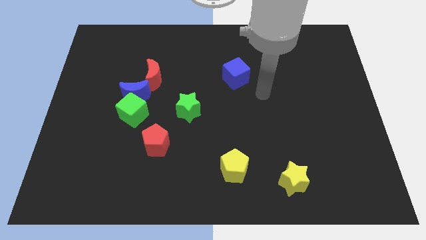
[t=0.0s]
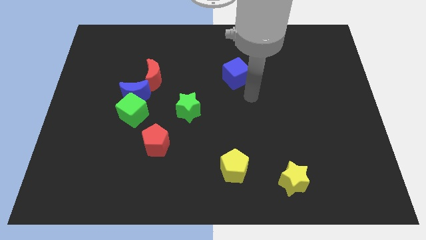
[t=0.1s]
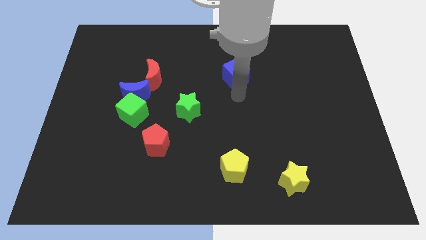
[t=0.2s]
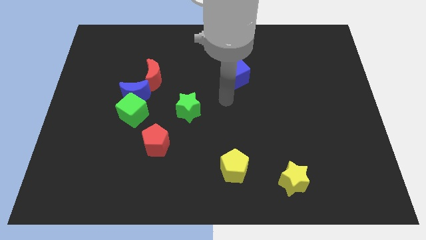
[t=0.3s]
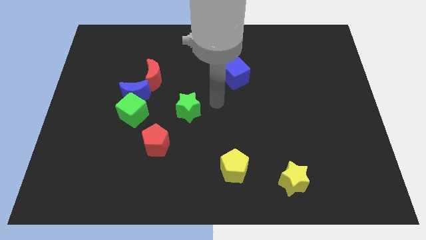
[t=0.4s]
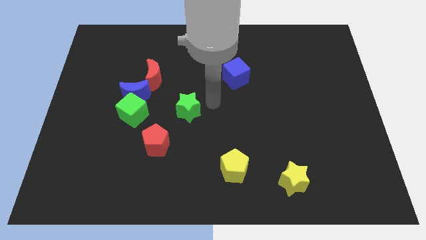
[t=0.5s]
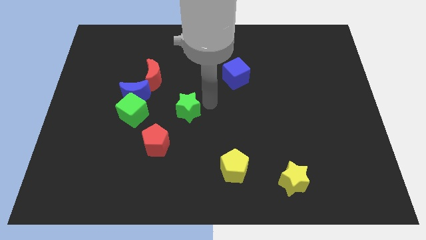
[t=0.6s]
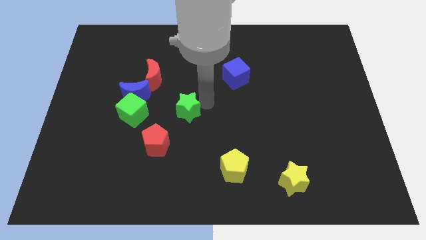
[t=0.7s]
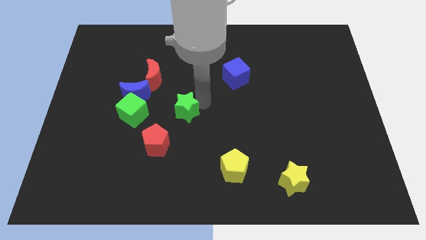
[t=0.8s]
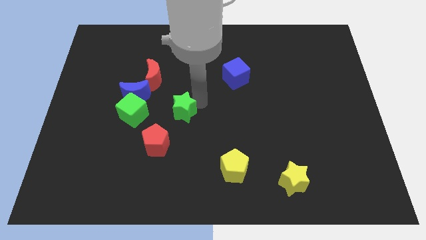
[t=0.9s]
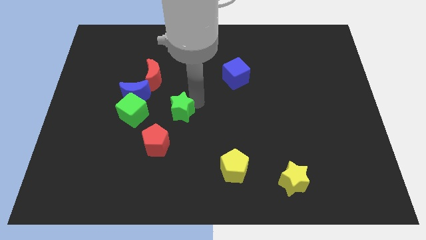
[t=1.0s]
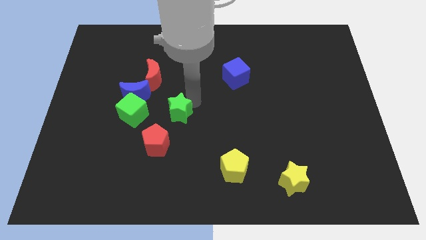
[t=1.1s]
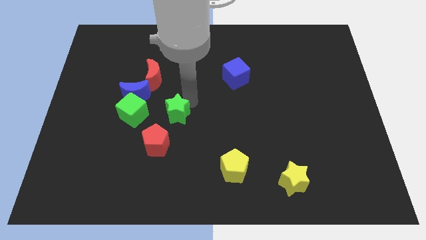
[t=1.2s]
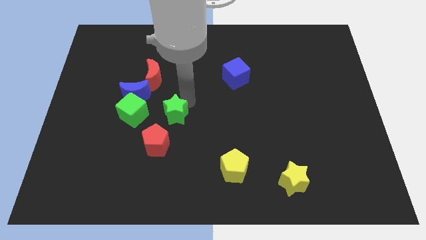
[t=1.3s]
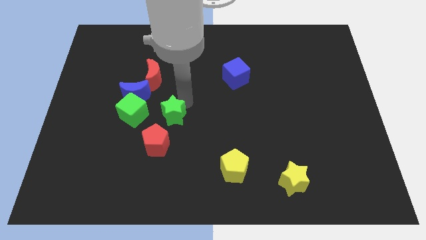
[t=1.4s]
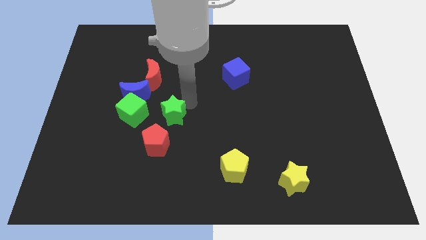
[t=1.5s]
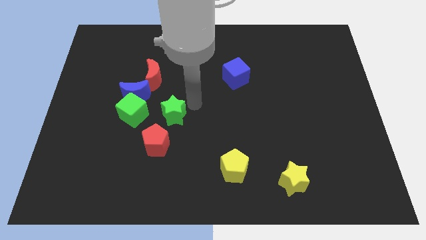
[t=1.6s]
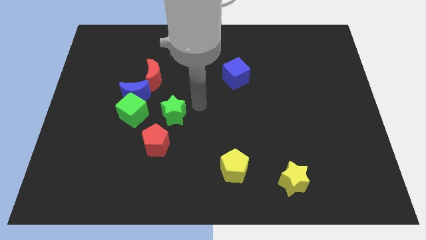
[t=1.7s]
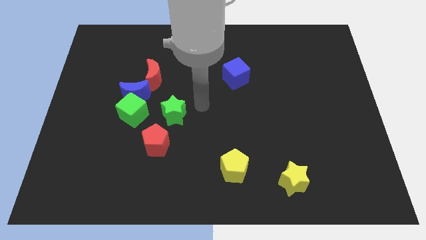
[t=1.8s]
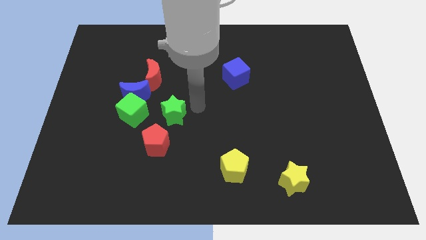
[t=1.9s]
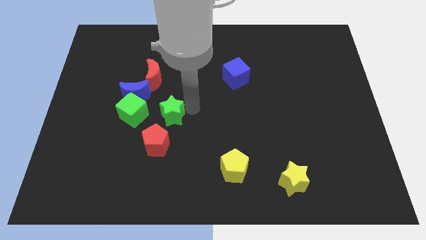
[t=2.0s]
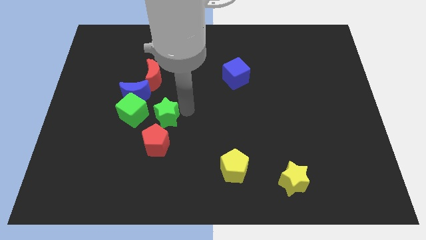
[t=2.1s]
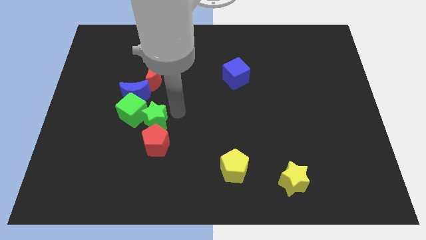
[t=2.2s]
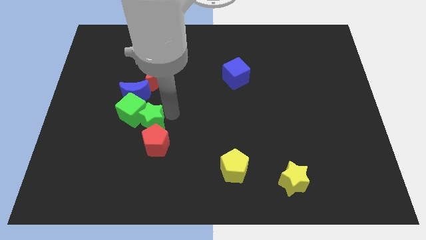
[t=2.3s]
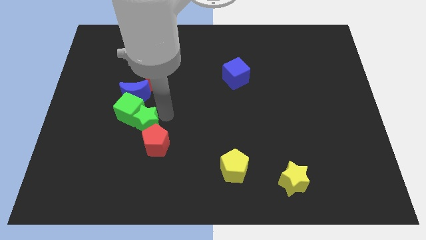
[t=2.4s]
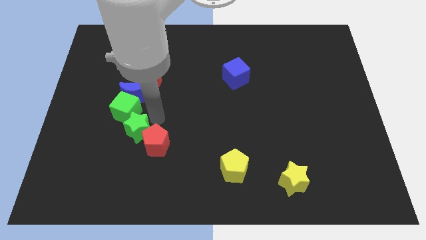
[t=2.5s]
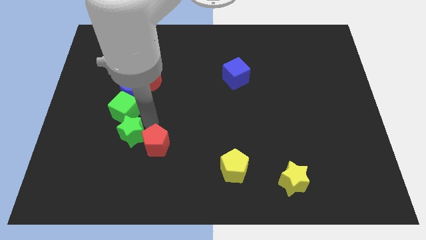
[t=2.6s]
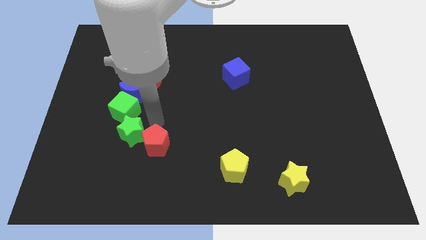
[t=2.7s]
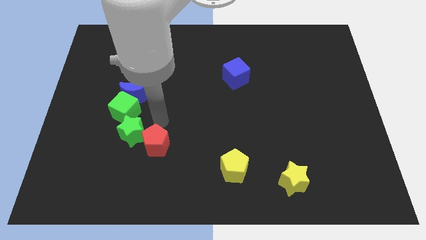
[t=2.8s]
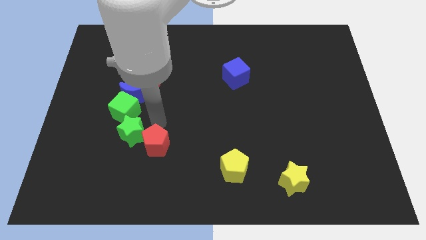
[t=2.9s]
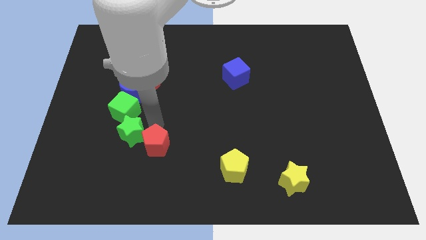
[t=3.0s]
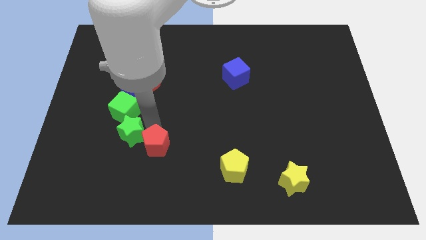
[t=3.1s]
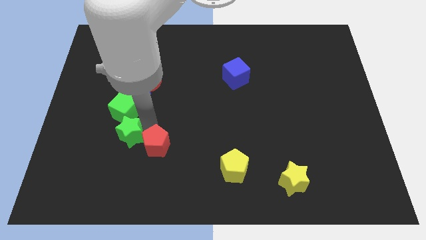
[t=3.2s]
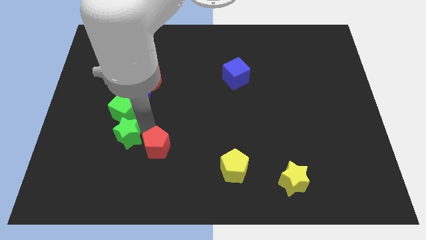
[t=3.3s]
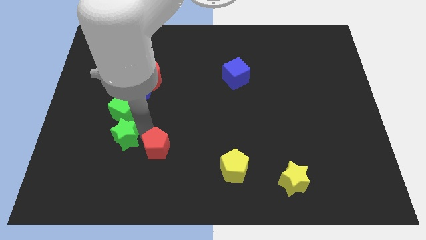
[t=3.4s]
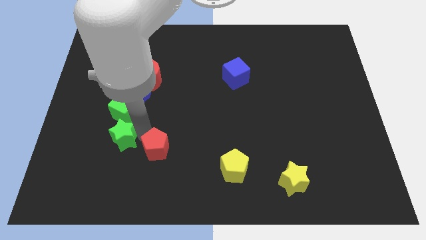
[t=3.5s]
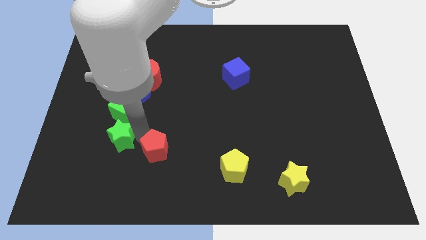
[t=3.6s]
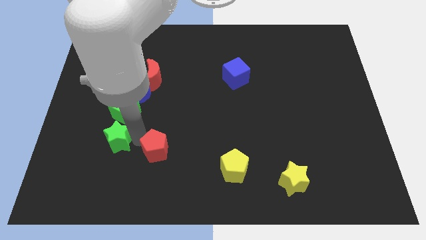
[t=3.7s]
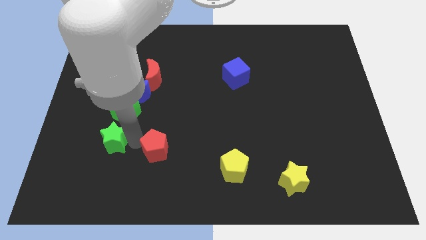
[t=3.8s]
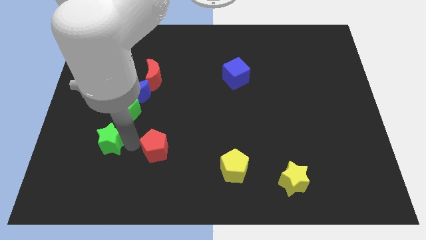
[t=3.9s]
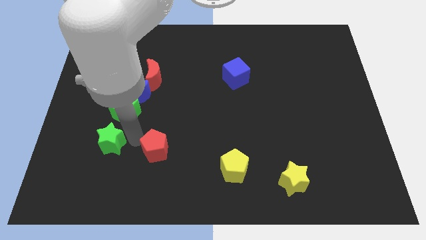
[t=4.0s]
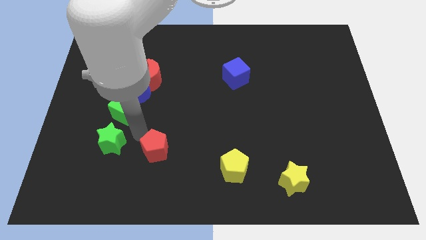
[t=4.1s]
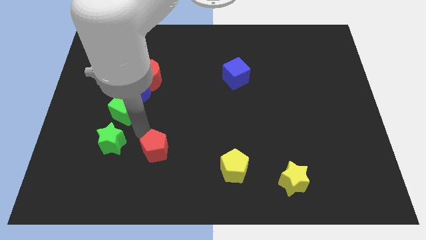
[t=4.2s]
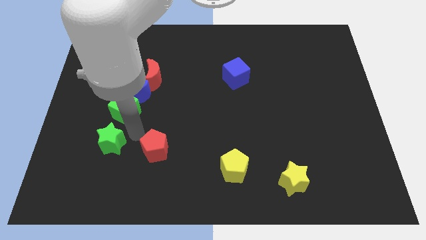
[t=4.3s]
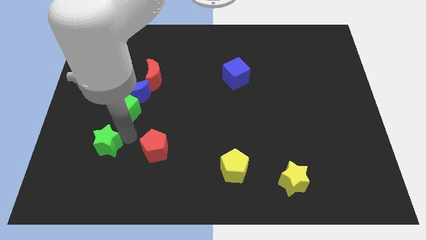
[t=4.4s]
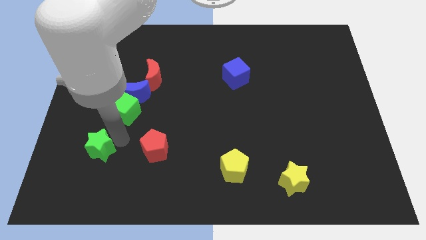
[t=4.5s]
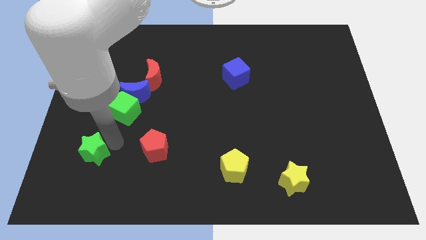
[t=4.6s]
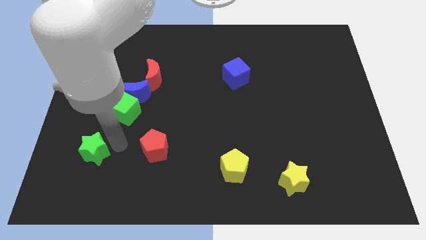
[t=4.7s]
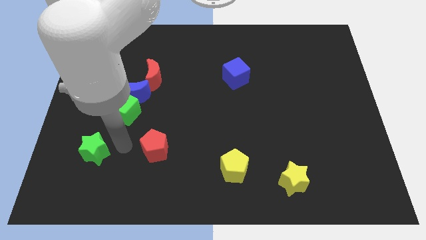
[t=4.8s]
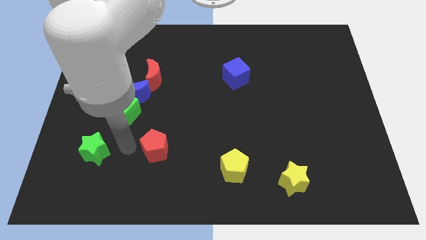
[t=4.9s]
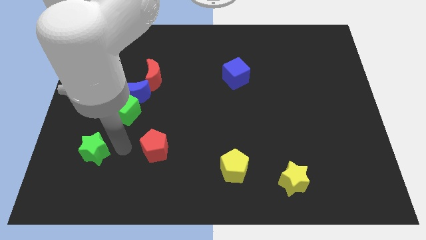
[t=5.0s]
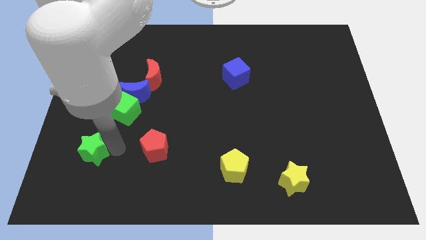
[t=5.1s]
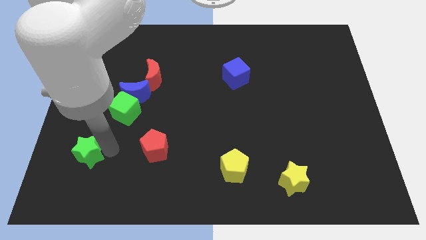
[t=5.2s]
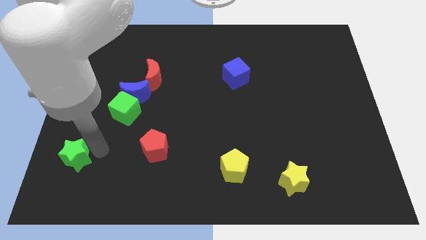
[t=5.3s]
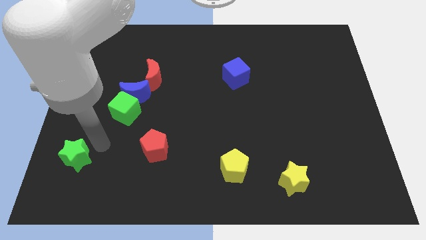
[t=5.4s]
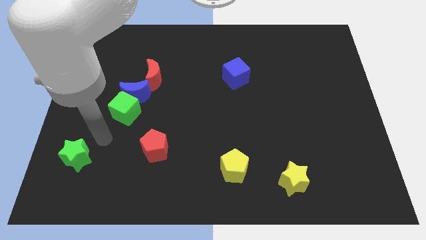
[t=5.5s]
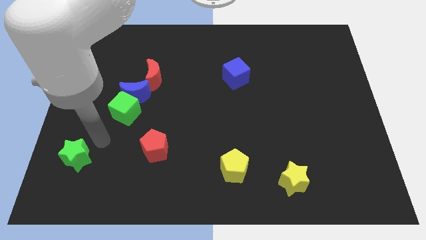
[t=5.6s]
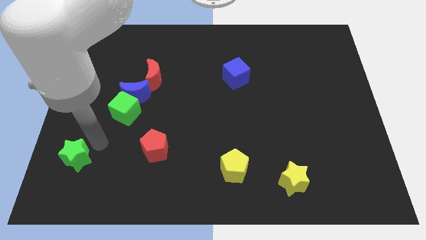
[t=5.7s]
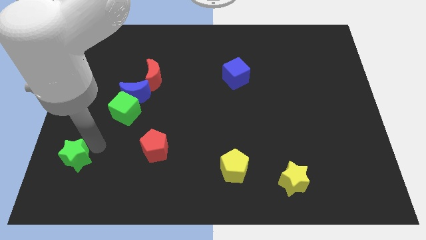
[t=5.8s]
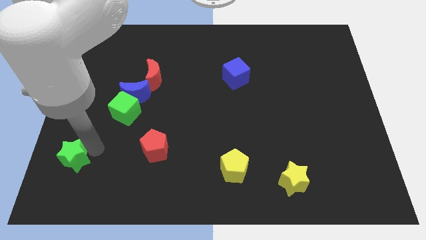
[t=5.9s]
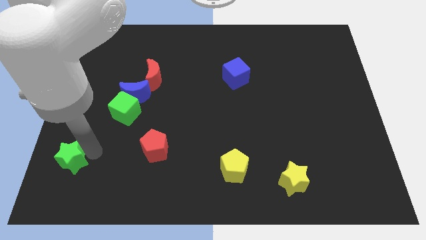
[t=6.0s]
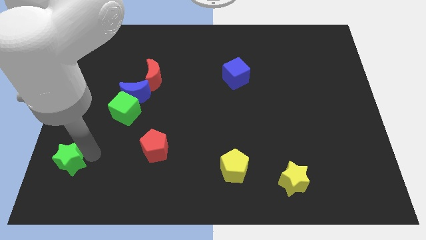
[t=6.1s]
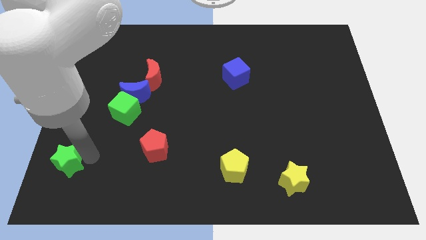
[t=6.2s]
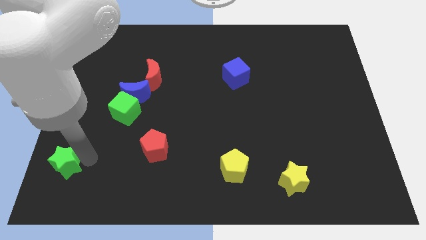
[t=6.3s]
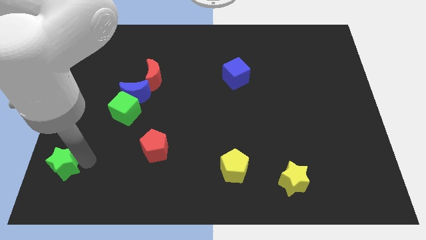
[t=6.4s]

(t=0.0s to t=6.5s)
slide the green star to the bottom left
